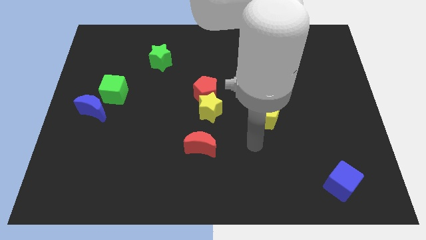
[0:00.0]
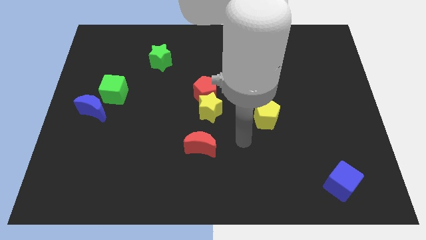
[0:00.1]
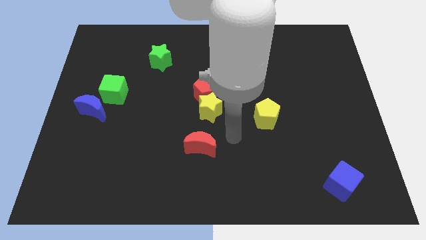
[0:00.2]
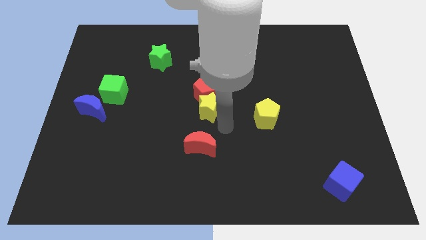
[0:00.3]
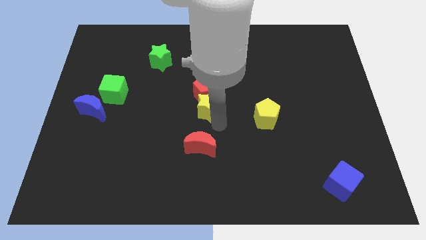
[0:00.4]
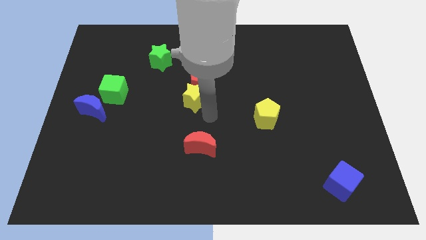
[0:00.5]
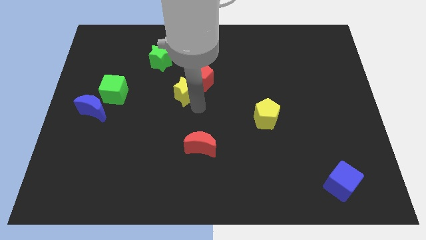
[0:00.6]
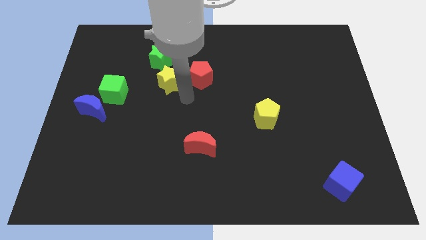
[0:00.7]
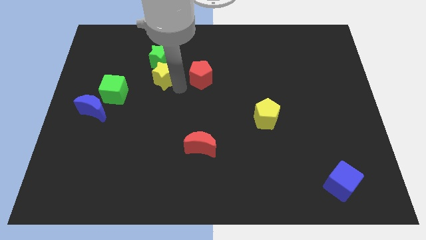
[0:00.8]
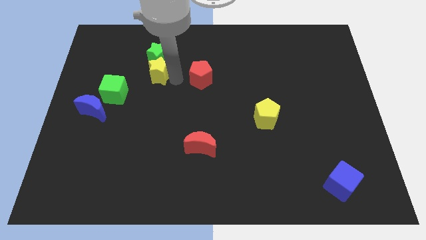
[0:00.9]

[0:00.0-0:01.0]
move the red pentagon away from the yellow star

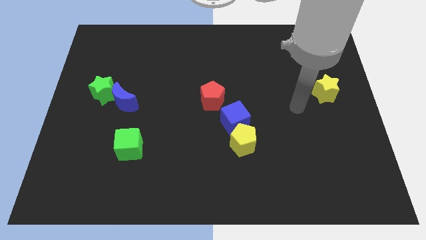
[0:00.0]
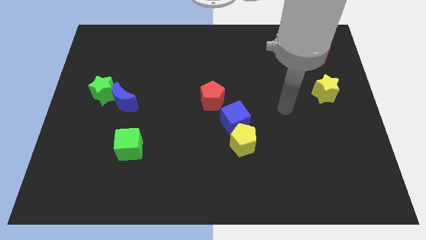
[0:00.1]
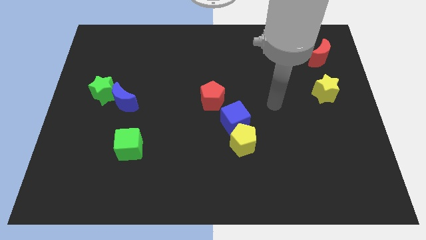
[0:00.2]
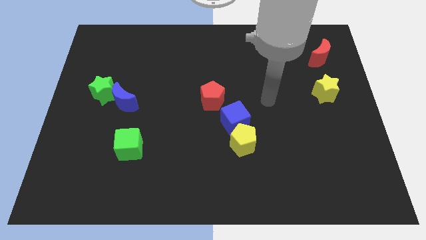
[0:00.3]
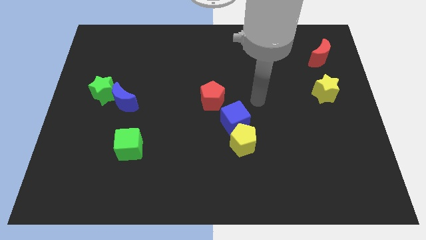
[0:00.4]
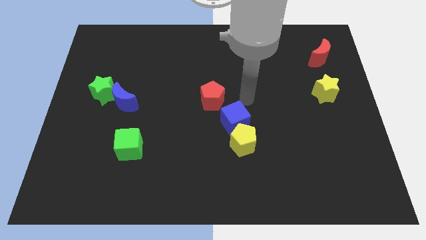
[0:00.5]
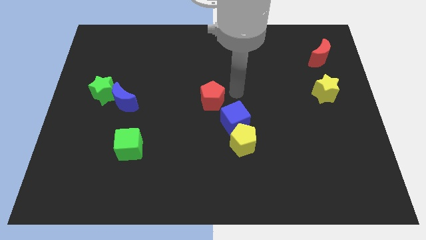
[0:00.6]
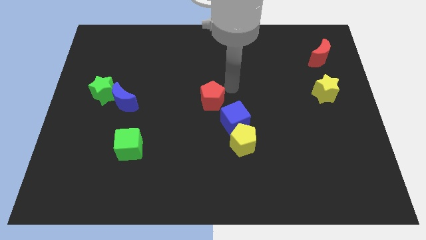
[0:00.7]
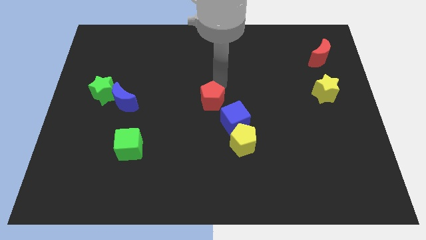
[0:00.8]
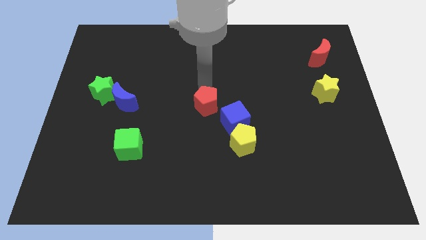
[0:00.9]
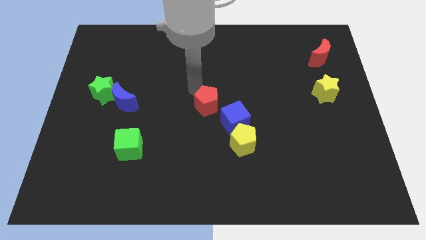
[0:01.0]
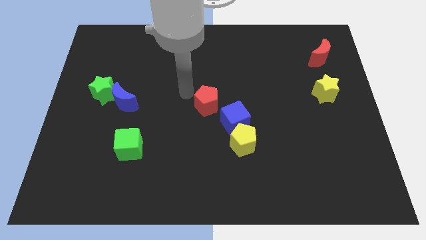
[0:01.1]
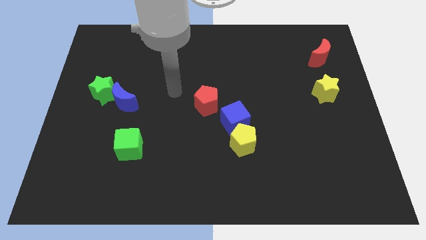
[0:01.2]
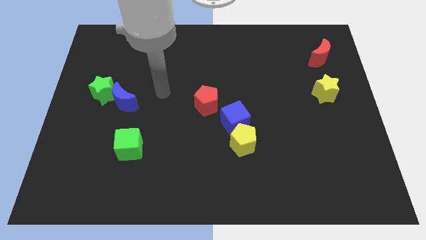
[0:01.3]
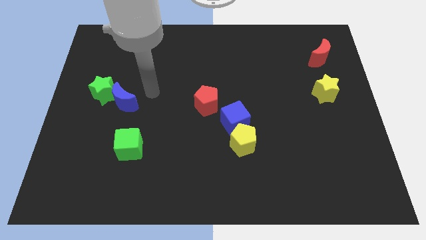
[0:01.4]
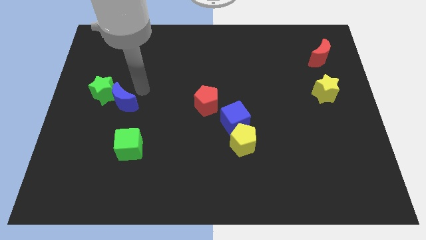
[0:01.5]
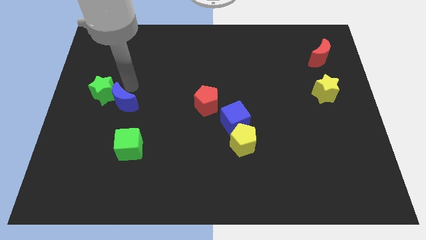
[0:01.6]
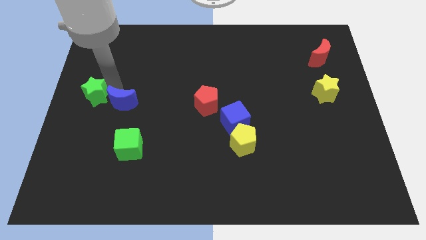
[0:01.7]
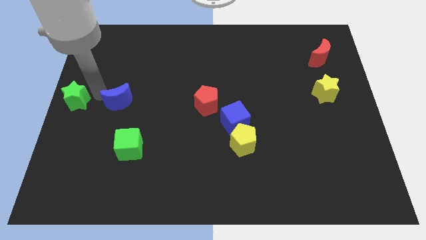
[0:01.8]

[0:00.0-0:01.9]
pull the blue moon apart from the green star

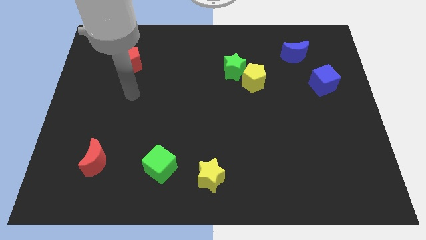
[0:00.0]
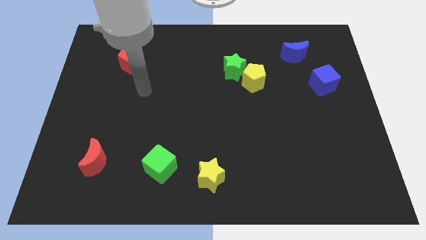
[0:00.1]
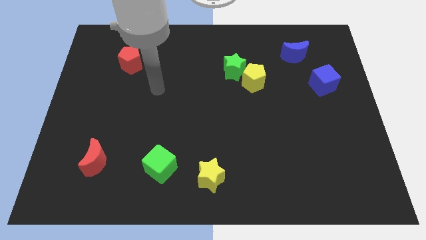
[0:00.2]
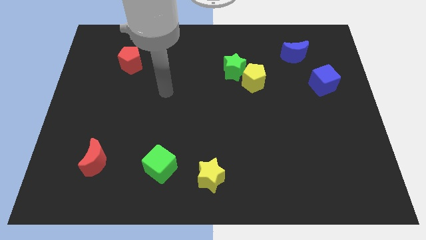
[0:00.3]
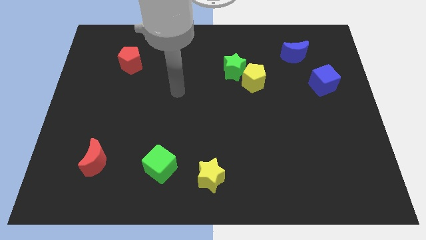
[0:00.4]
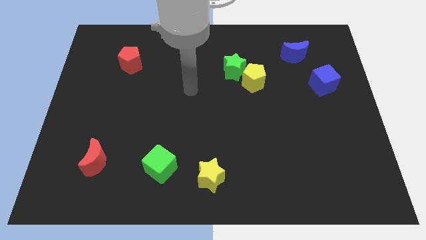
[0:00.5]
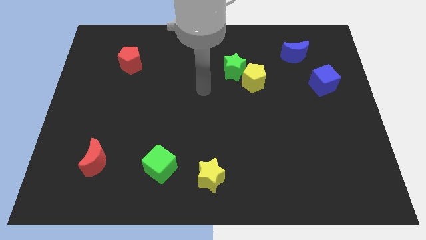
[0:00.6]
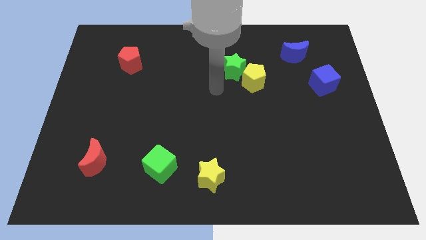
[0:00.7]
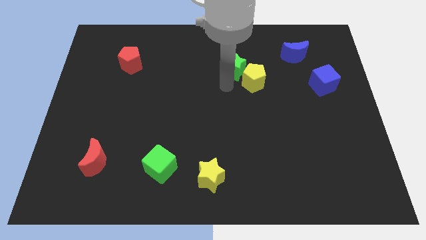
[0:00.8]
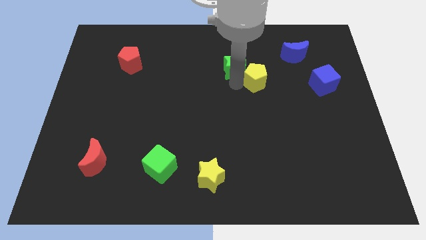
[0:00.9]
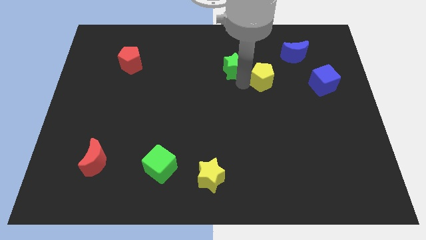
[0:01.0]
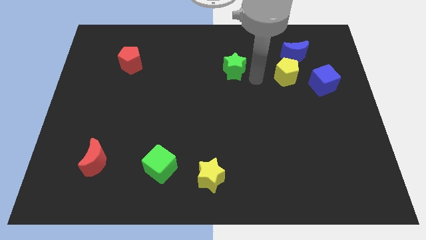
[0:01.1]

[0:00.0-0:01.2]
pull the green star apart from the yellow pentagon

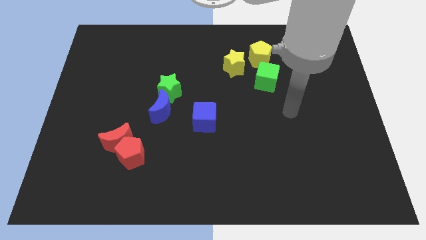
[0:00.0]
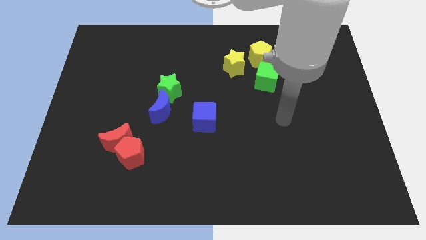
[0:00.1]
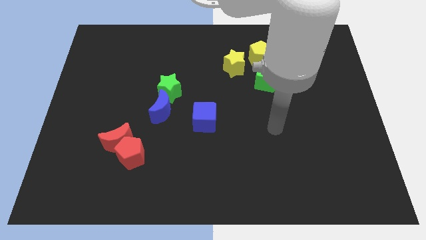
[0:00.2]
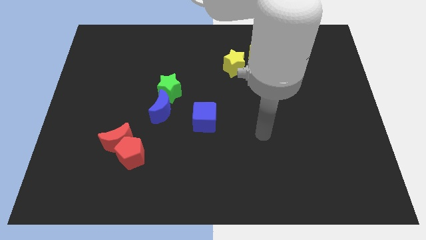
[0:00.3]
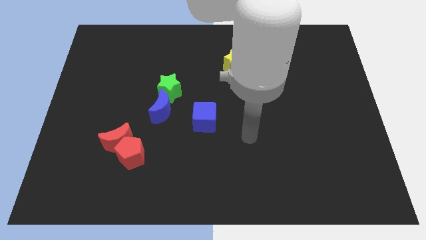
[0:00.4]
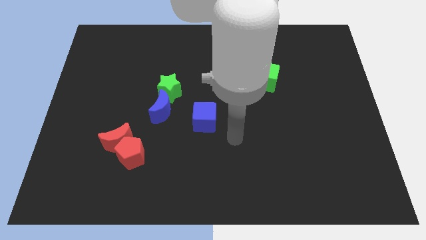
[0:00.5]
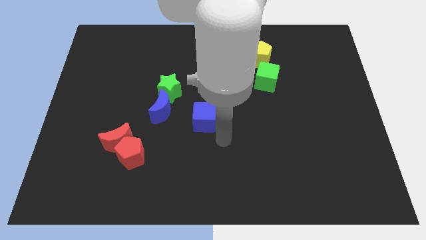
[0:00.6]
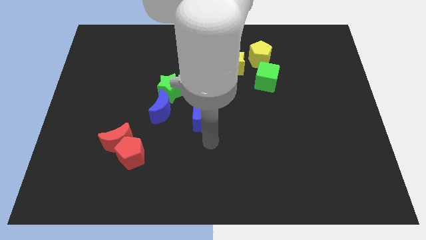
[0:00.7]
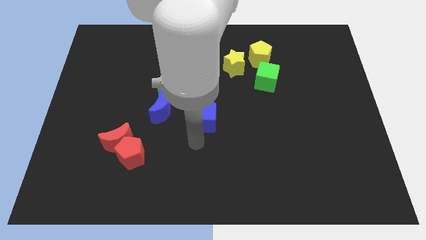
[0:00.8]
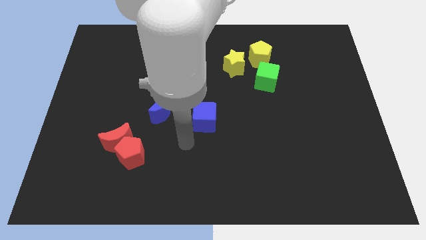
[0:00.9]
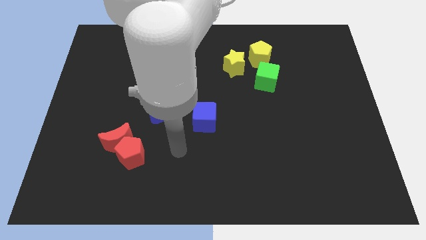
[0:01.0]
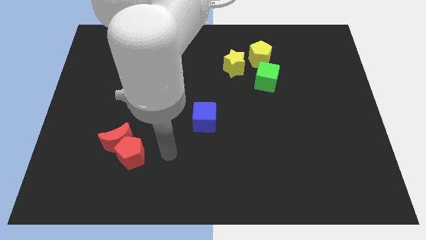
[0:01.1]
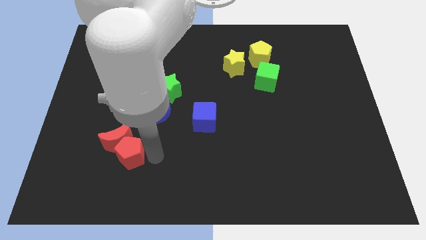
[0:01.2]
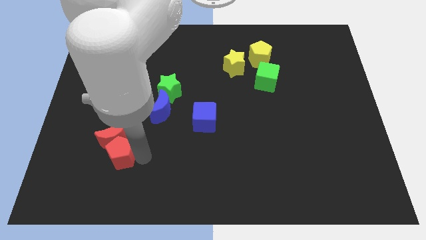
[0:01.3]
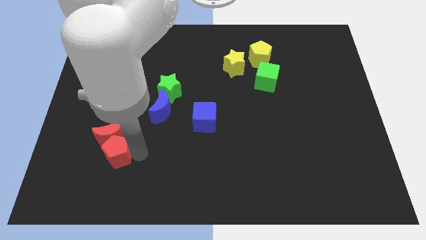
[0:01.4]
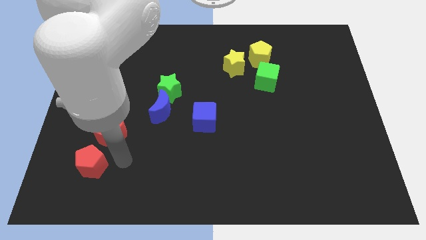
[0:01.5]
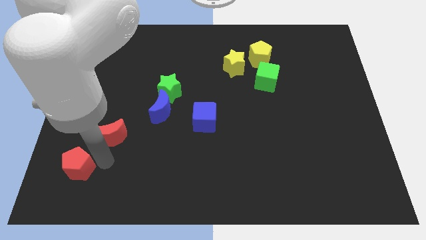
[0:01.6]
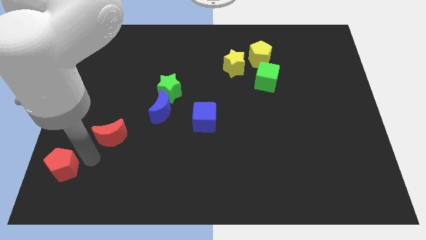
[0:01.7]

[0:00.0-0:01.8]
separate the red moon from the red pentagon

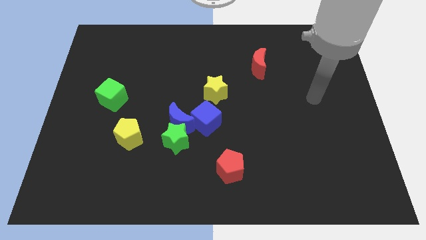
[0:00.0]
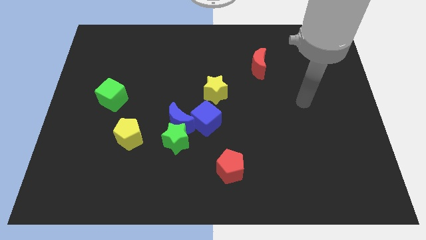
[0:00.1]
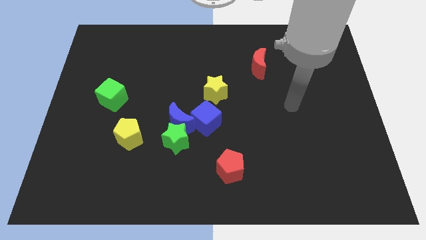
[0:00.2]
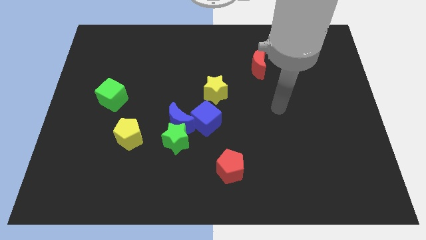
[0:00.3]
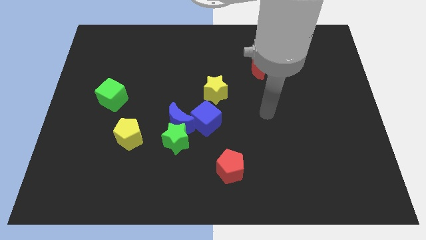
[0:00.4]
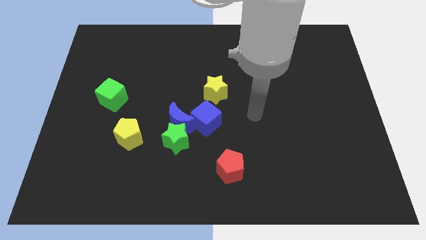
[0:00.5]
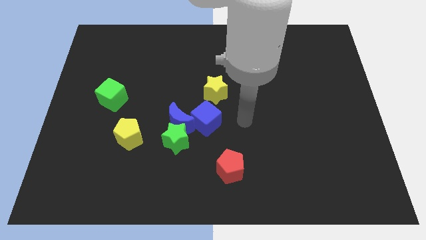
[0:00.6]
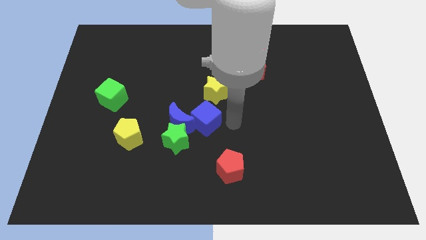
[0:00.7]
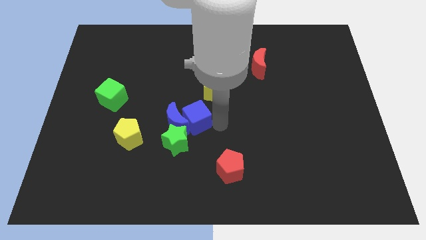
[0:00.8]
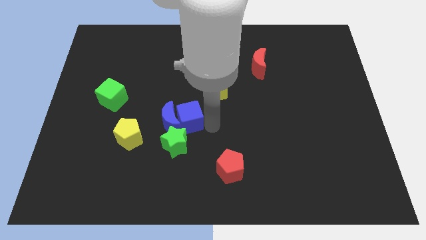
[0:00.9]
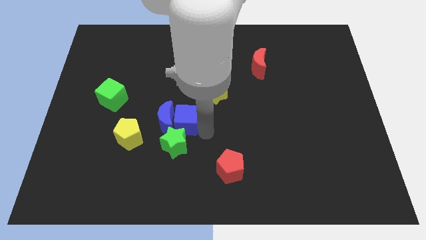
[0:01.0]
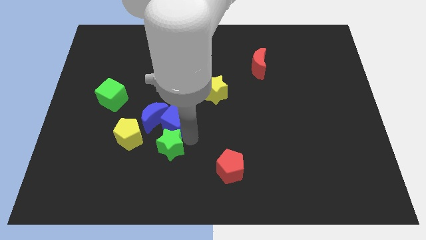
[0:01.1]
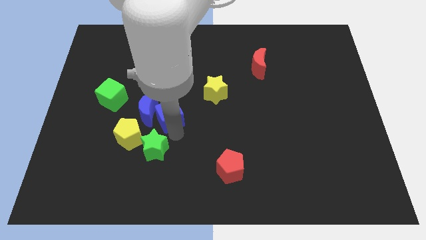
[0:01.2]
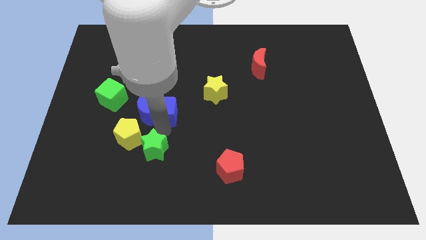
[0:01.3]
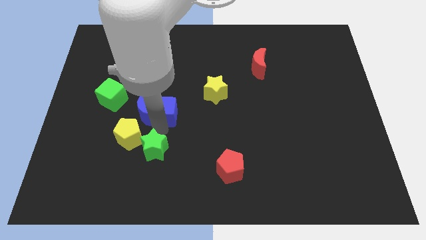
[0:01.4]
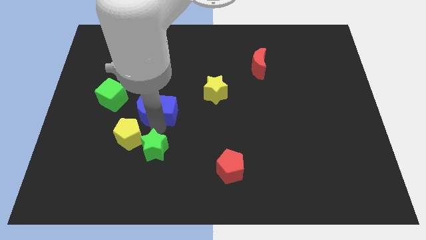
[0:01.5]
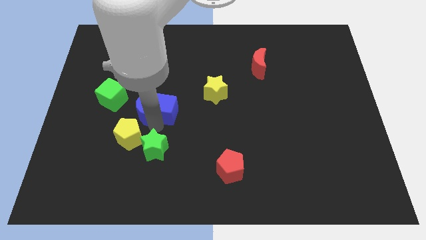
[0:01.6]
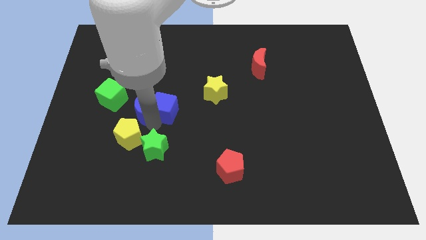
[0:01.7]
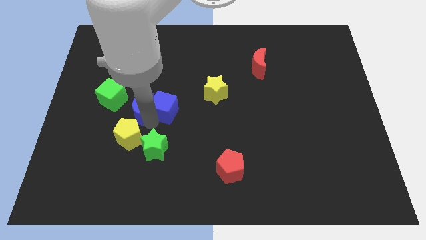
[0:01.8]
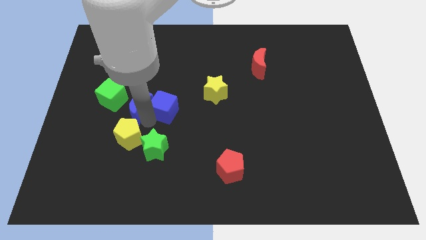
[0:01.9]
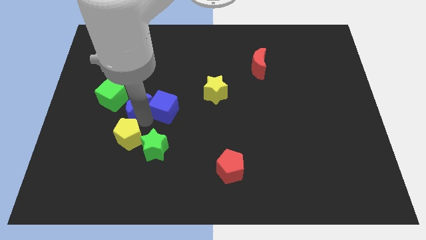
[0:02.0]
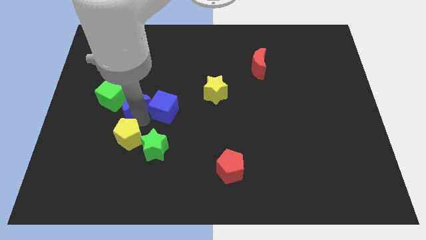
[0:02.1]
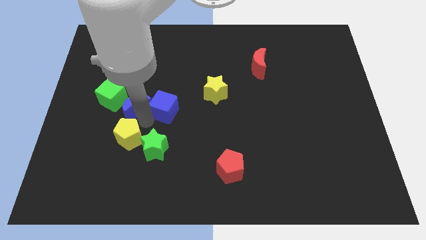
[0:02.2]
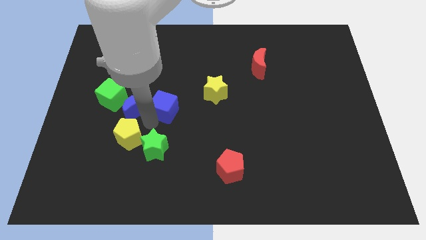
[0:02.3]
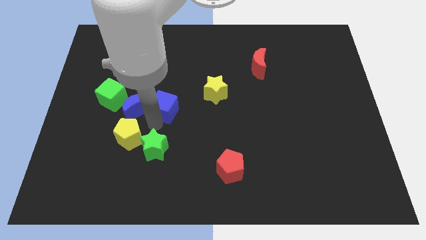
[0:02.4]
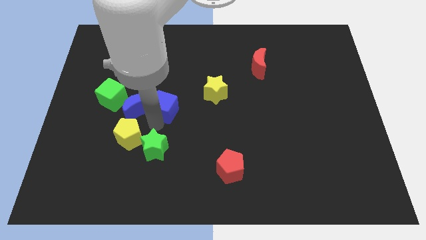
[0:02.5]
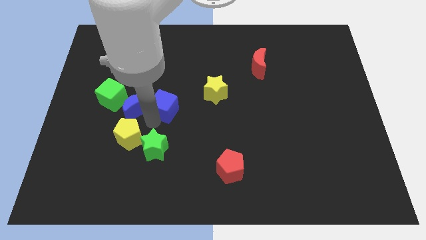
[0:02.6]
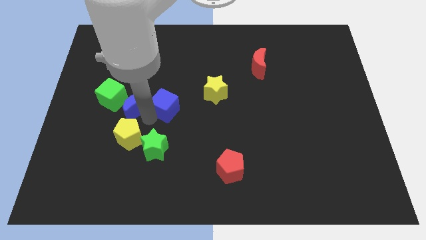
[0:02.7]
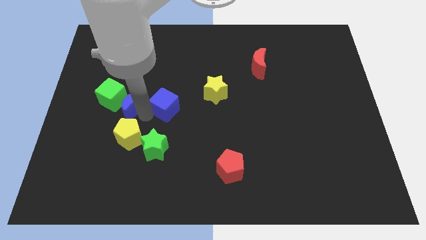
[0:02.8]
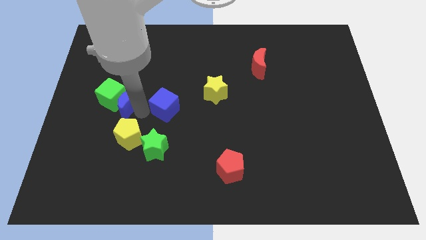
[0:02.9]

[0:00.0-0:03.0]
move the blue moon away from the green star and blue cube

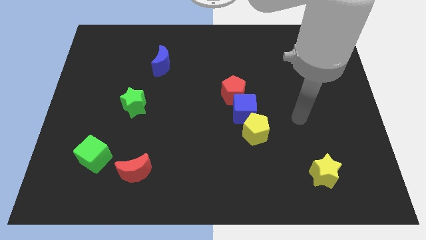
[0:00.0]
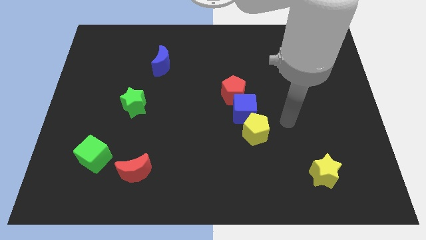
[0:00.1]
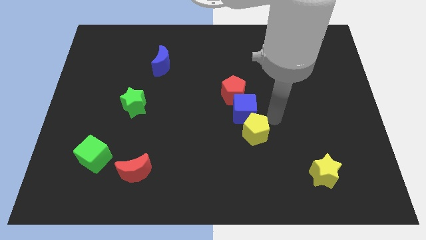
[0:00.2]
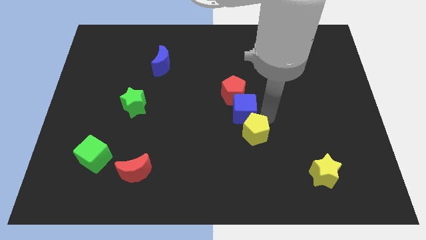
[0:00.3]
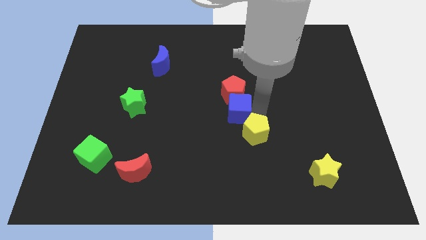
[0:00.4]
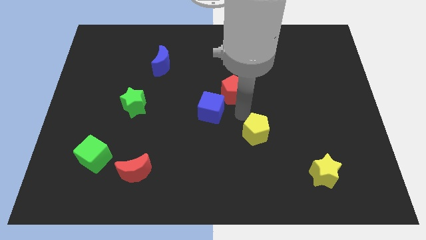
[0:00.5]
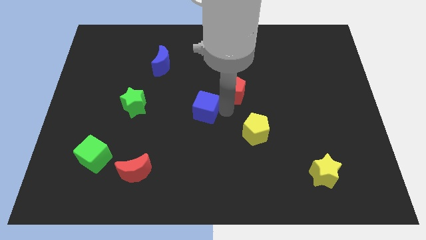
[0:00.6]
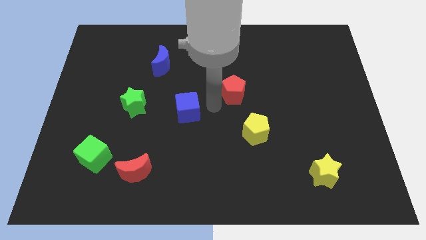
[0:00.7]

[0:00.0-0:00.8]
move the red pentagon away from the blue cube
